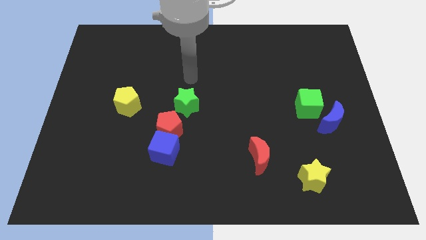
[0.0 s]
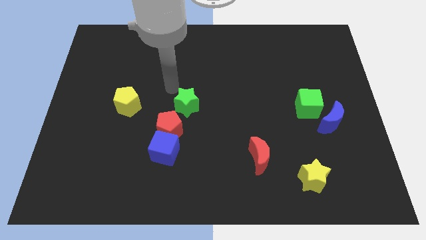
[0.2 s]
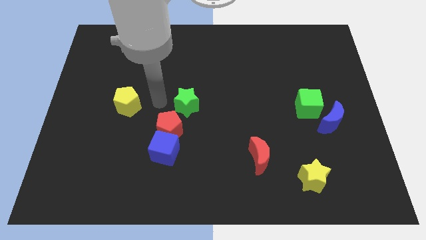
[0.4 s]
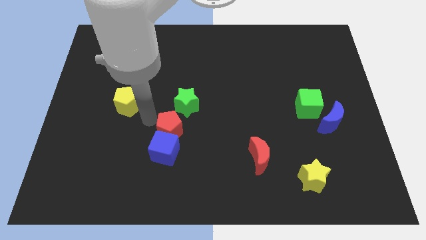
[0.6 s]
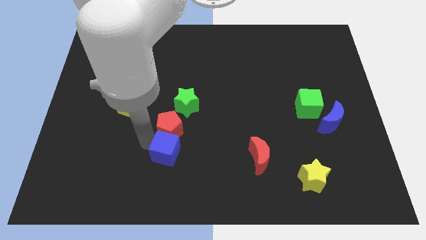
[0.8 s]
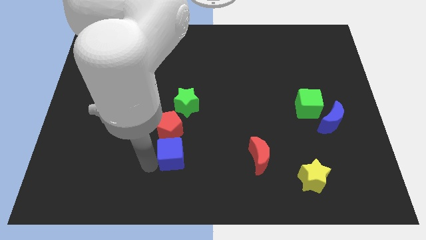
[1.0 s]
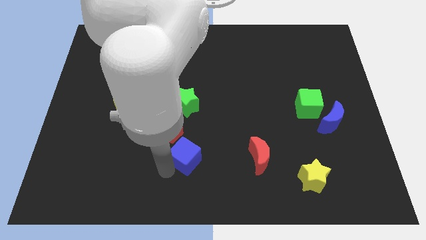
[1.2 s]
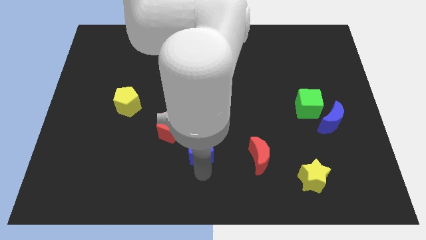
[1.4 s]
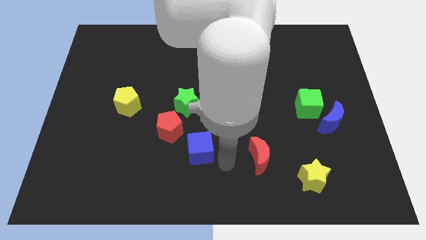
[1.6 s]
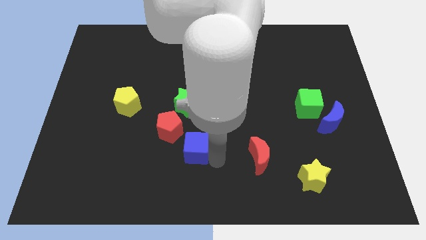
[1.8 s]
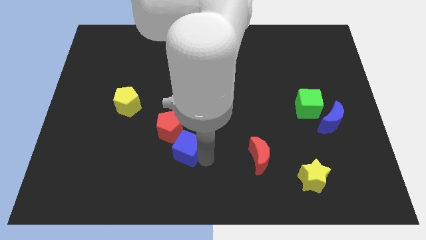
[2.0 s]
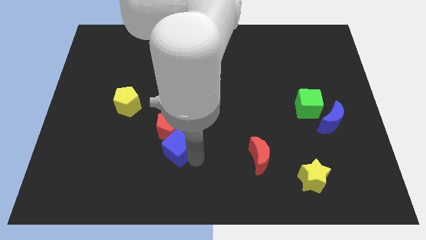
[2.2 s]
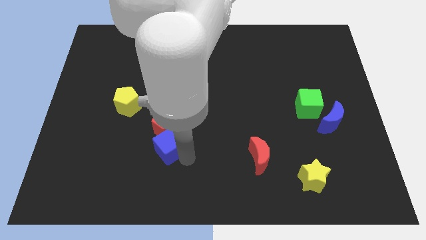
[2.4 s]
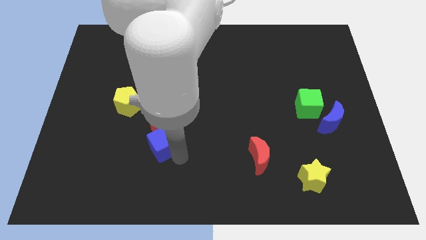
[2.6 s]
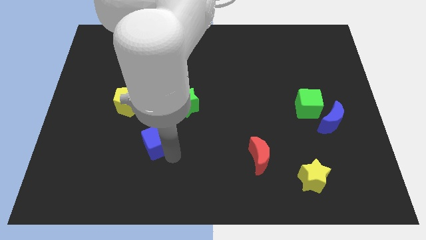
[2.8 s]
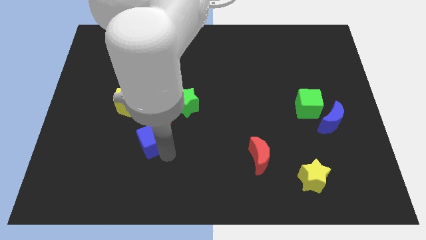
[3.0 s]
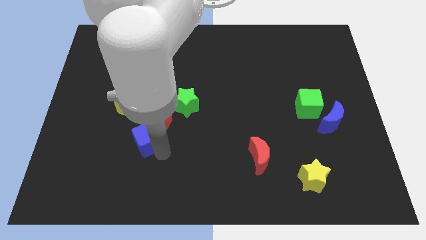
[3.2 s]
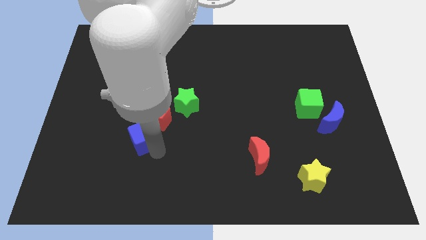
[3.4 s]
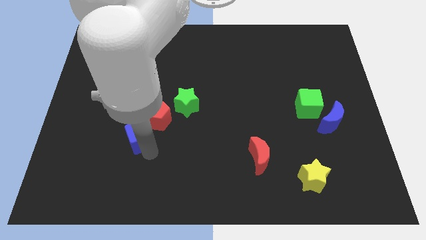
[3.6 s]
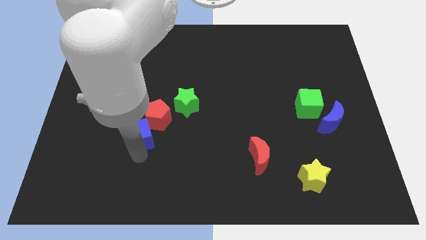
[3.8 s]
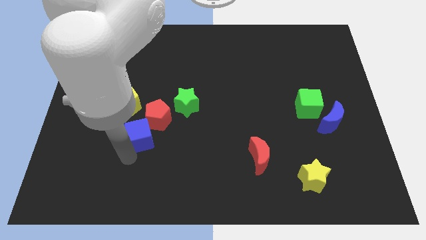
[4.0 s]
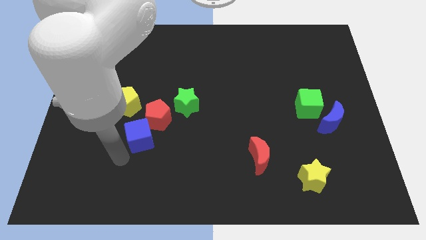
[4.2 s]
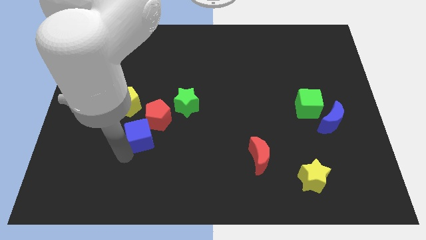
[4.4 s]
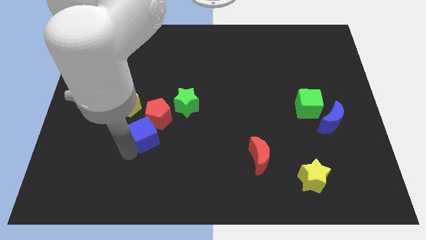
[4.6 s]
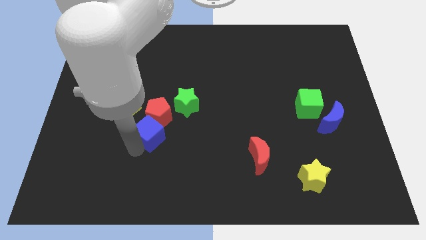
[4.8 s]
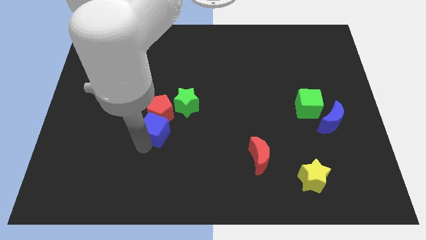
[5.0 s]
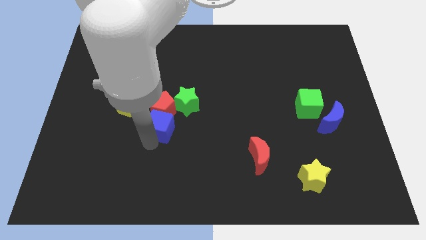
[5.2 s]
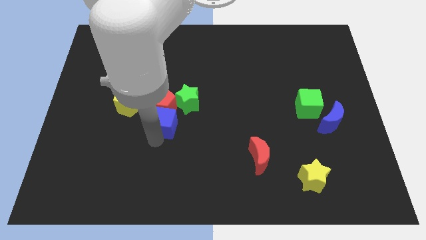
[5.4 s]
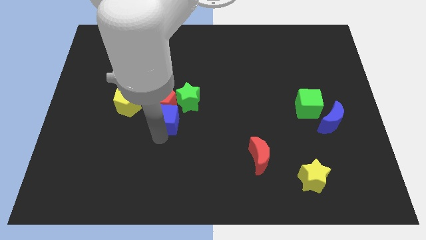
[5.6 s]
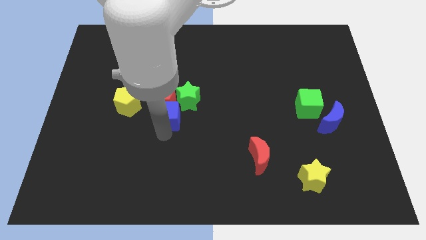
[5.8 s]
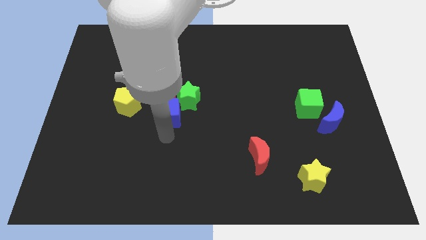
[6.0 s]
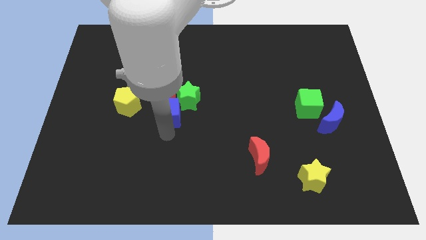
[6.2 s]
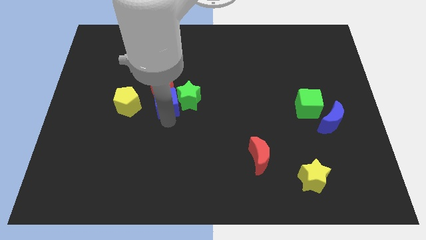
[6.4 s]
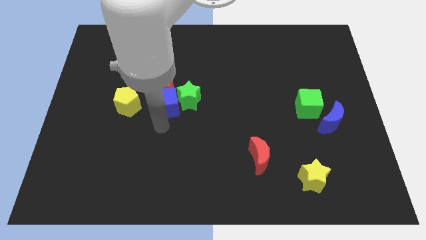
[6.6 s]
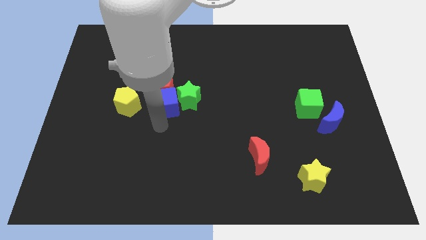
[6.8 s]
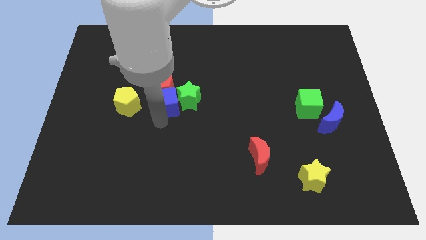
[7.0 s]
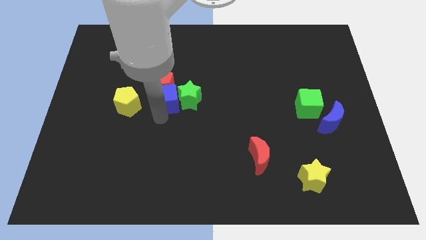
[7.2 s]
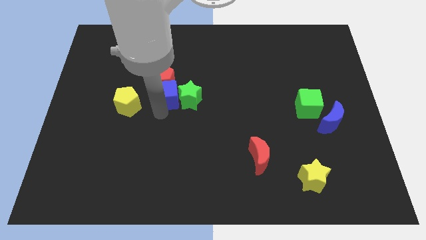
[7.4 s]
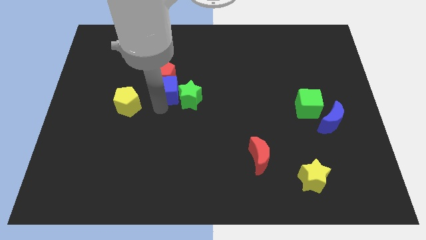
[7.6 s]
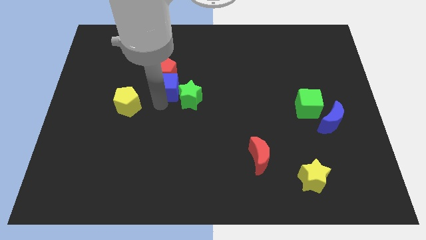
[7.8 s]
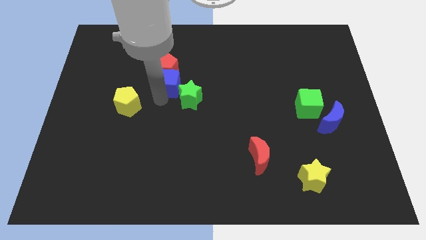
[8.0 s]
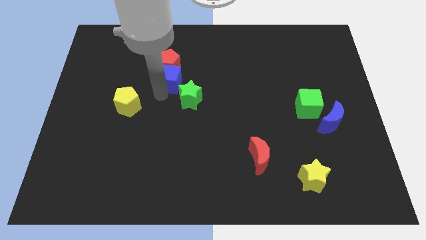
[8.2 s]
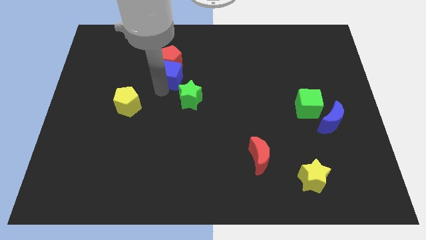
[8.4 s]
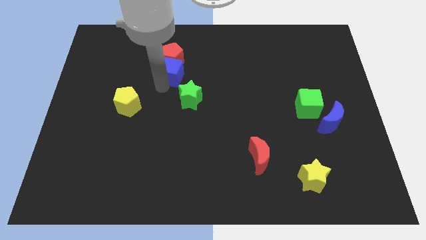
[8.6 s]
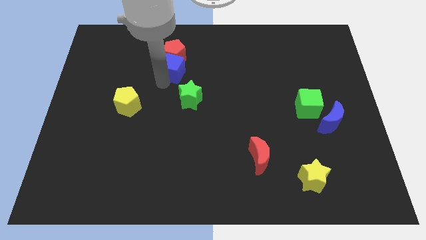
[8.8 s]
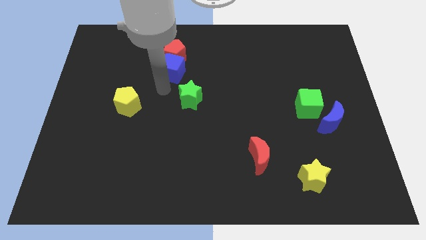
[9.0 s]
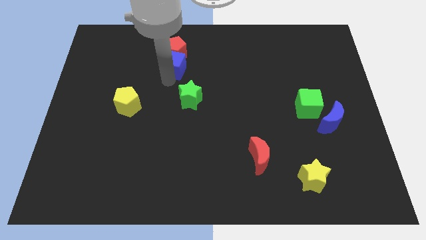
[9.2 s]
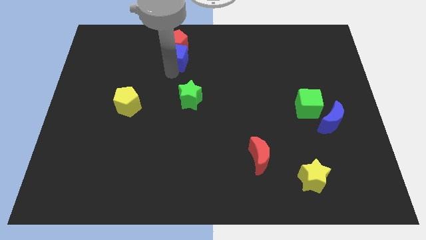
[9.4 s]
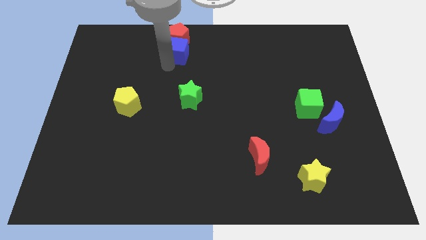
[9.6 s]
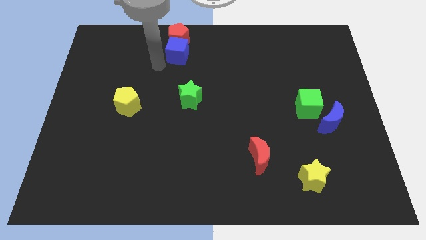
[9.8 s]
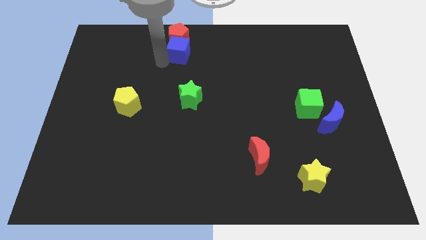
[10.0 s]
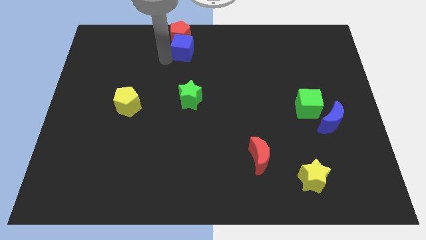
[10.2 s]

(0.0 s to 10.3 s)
push the blue cube to the top

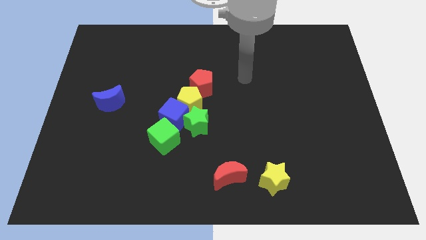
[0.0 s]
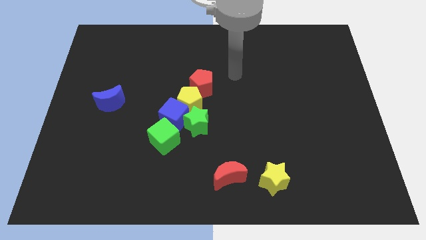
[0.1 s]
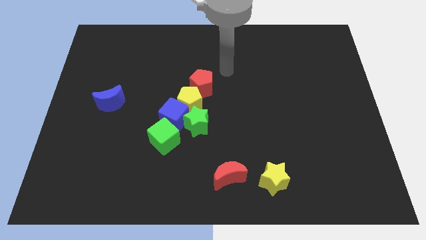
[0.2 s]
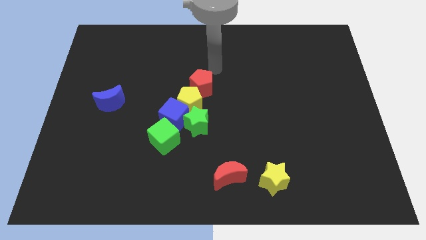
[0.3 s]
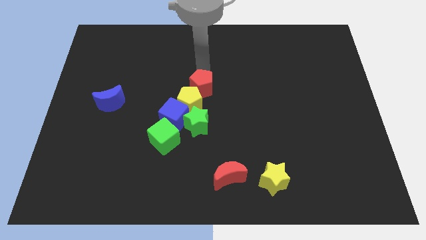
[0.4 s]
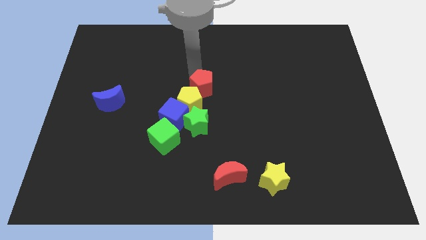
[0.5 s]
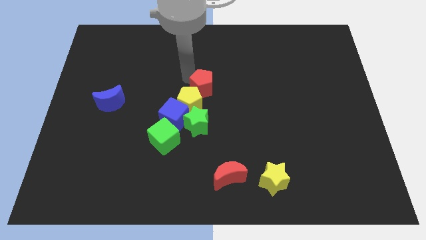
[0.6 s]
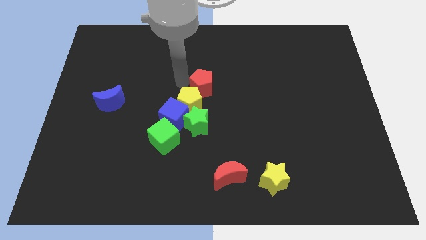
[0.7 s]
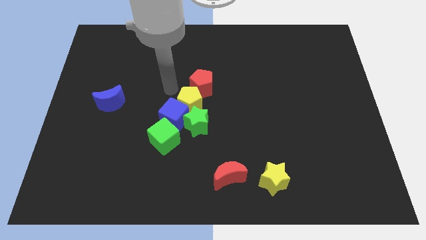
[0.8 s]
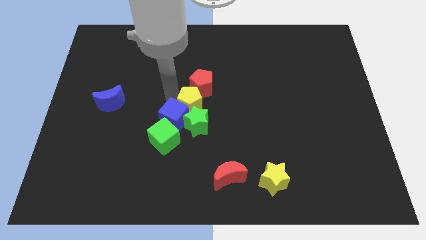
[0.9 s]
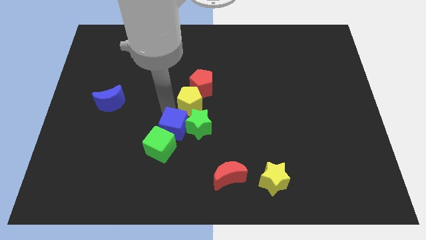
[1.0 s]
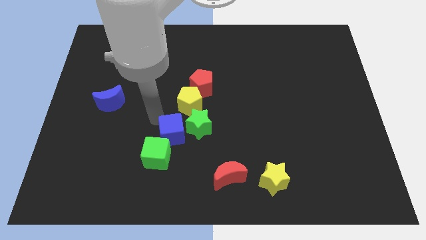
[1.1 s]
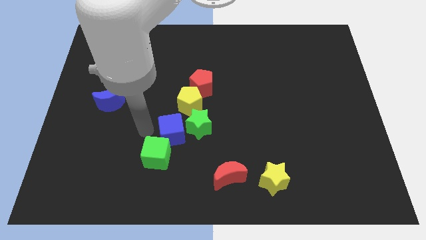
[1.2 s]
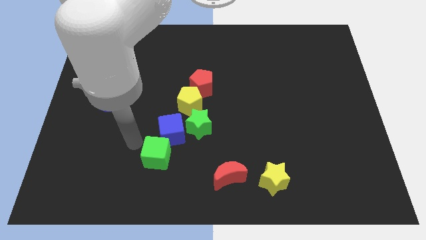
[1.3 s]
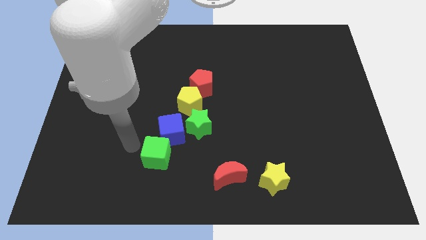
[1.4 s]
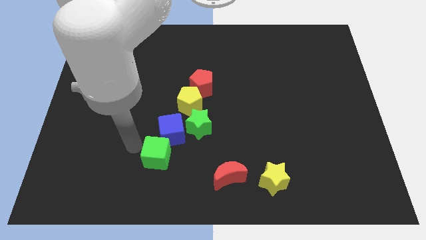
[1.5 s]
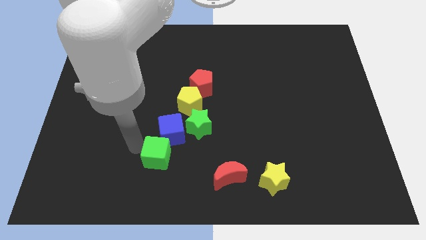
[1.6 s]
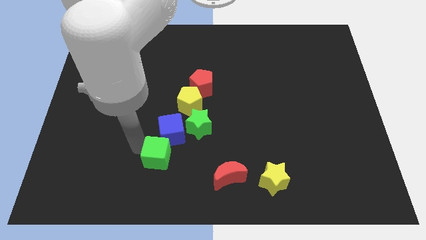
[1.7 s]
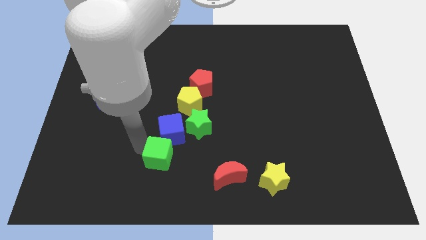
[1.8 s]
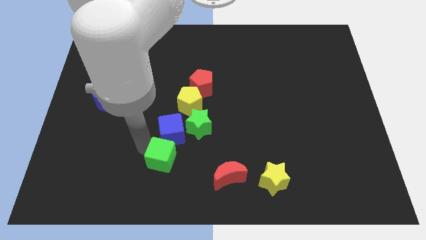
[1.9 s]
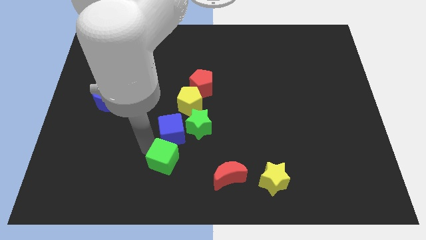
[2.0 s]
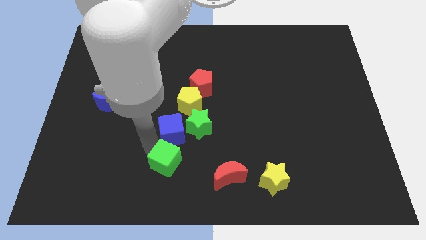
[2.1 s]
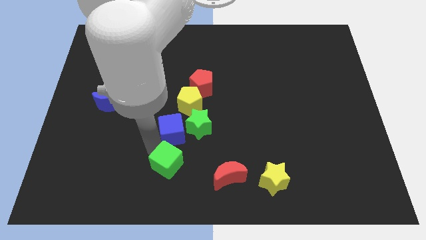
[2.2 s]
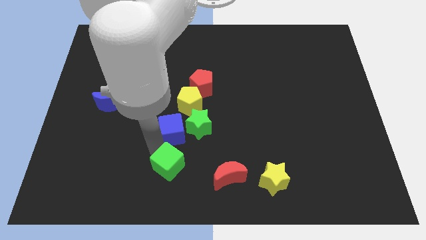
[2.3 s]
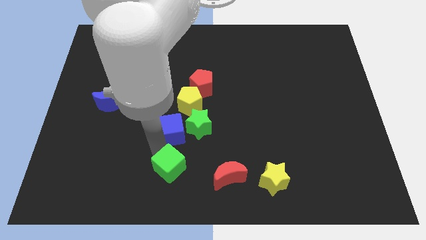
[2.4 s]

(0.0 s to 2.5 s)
put the green cube to the bottom side
